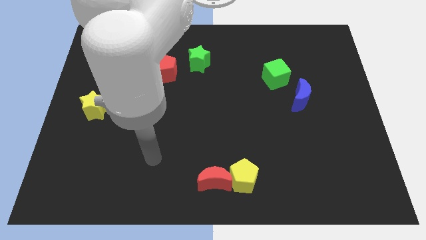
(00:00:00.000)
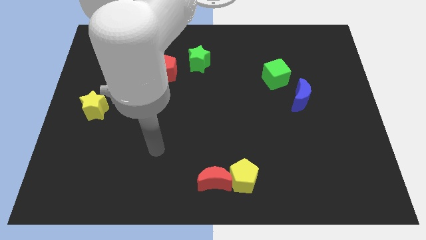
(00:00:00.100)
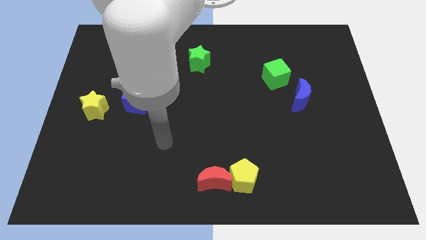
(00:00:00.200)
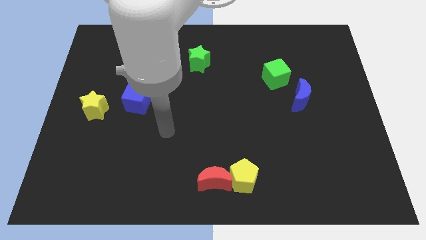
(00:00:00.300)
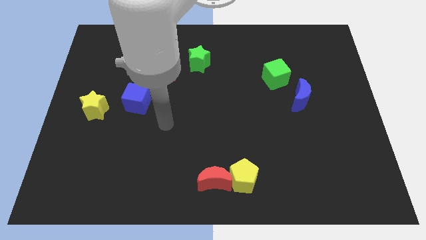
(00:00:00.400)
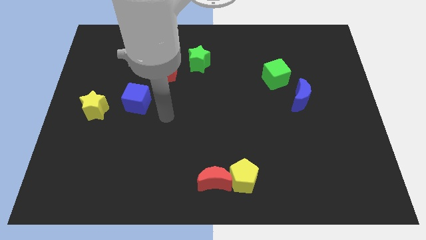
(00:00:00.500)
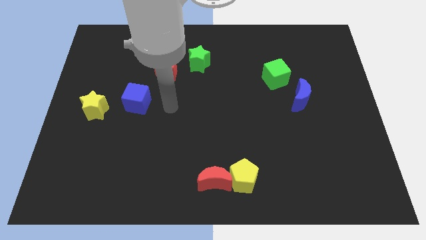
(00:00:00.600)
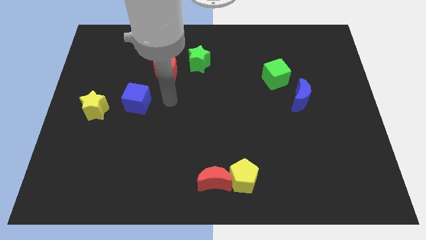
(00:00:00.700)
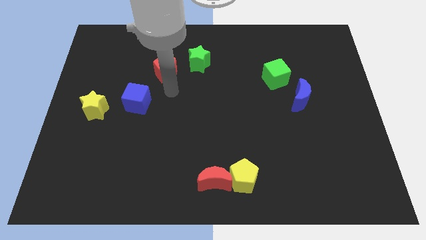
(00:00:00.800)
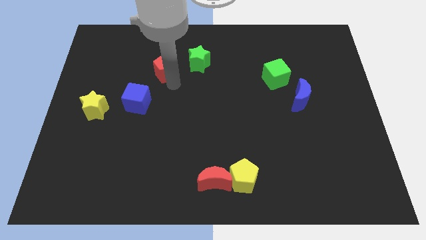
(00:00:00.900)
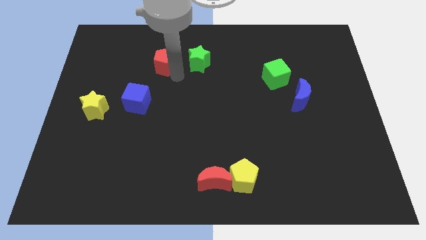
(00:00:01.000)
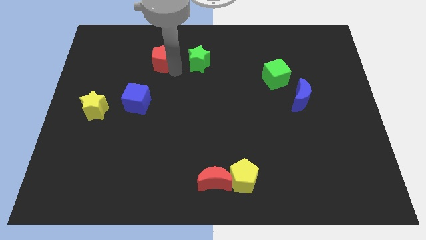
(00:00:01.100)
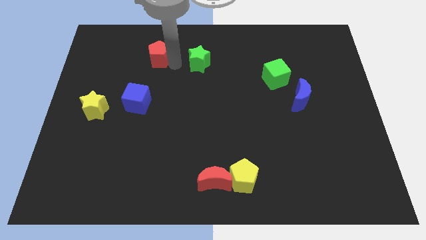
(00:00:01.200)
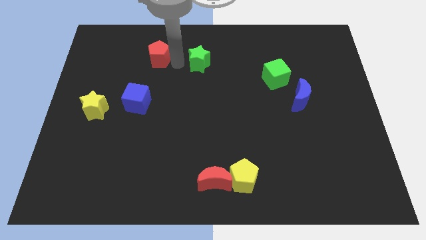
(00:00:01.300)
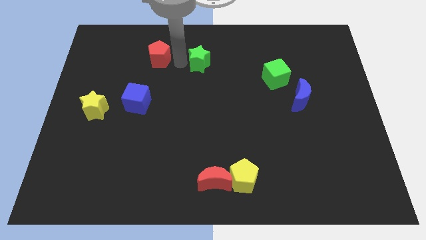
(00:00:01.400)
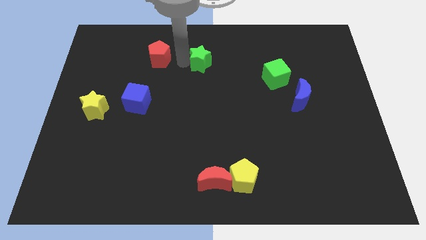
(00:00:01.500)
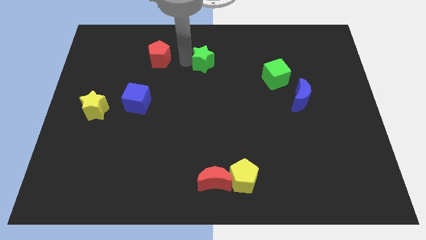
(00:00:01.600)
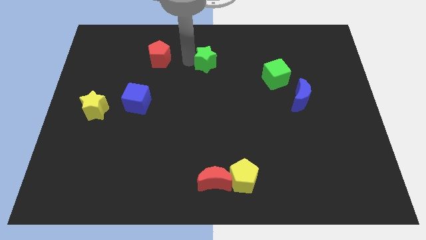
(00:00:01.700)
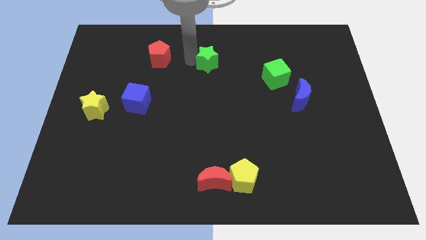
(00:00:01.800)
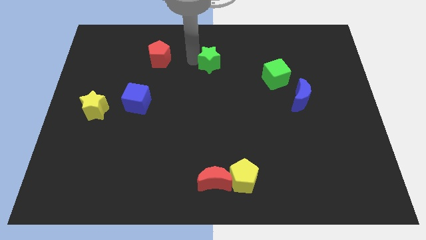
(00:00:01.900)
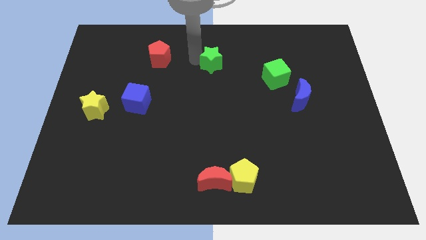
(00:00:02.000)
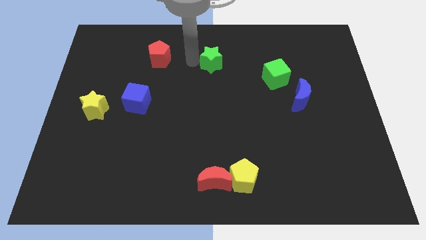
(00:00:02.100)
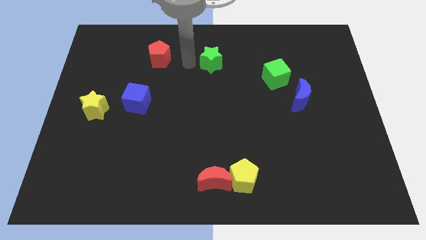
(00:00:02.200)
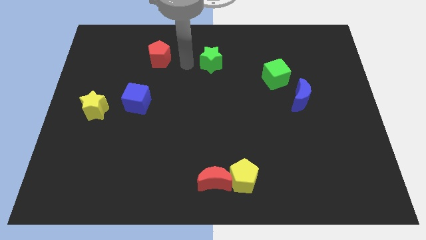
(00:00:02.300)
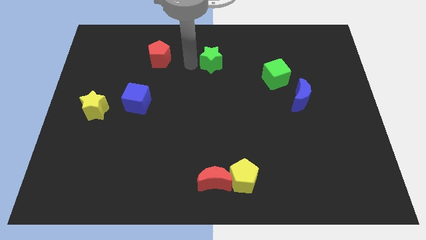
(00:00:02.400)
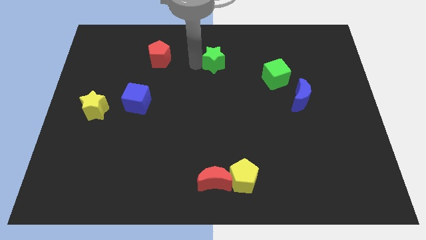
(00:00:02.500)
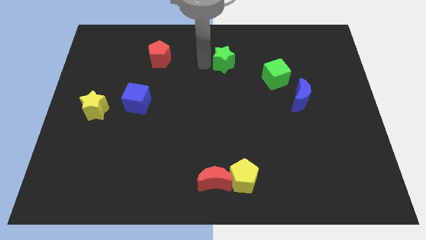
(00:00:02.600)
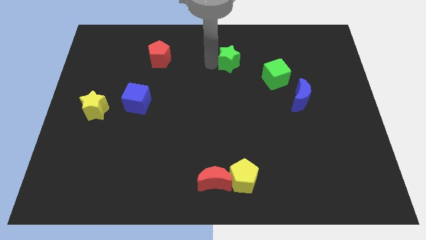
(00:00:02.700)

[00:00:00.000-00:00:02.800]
slightly slide the green star to the right

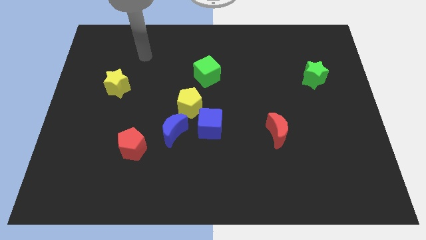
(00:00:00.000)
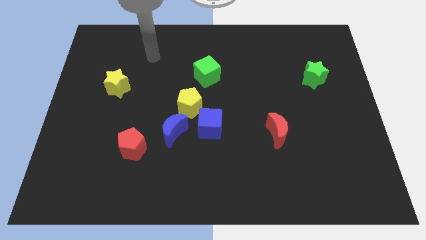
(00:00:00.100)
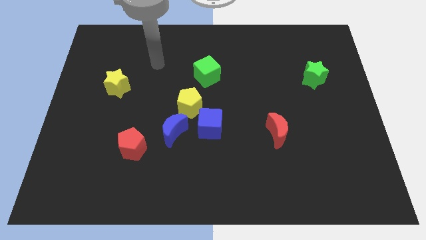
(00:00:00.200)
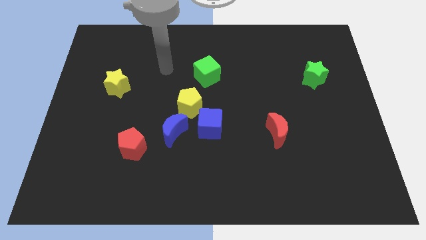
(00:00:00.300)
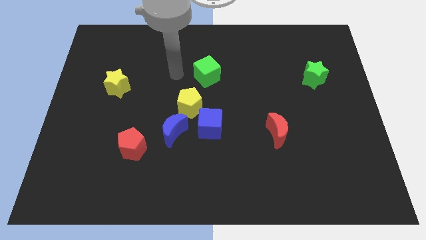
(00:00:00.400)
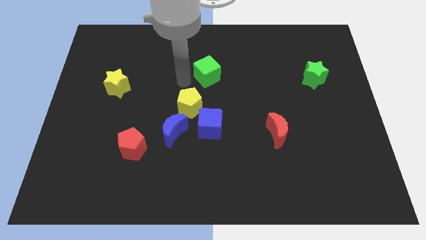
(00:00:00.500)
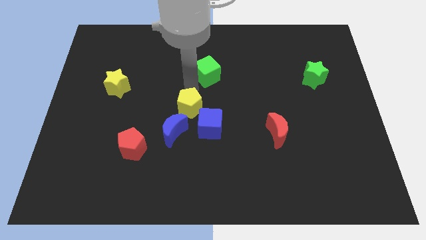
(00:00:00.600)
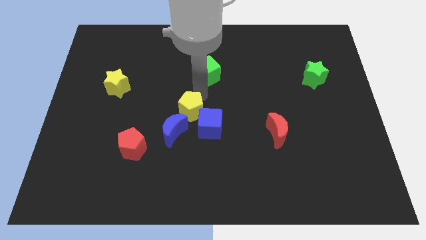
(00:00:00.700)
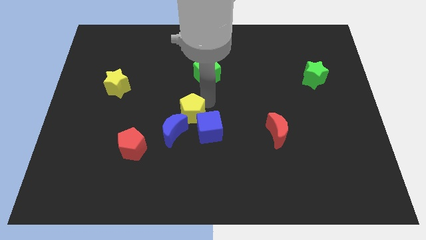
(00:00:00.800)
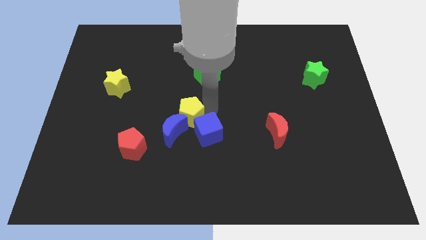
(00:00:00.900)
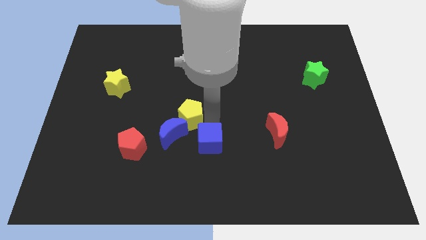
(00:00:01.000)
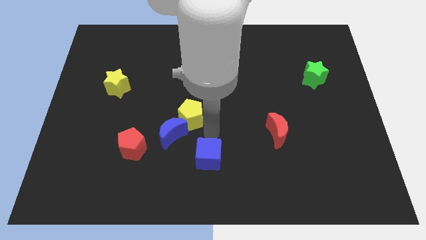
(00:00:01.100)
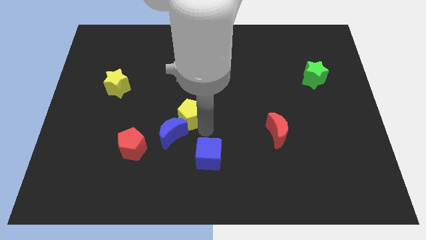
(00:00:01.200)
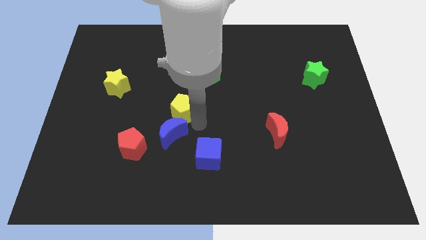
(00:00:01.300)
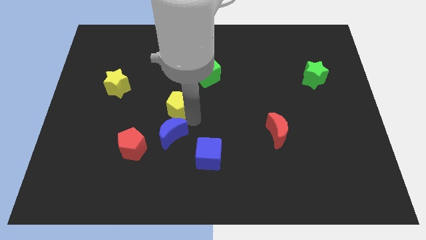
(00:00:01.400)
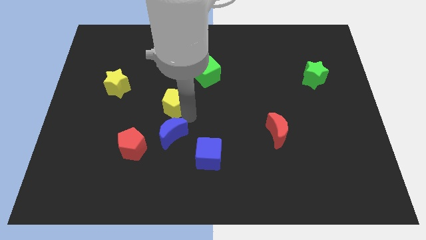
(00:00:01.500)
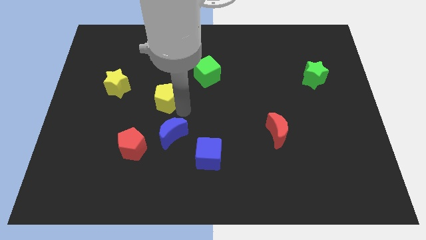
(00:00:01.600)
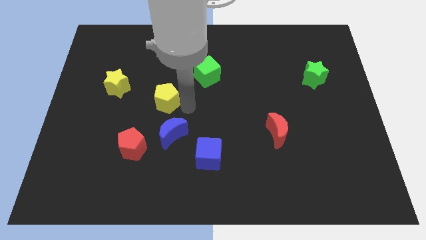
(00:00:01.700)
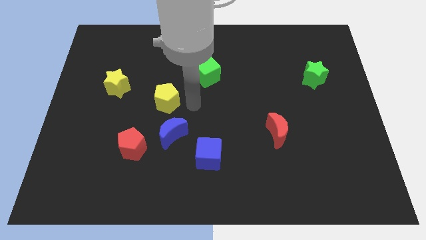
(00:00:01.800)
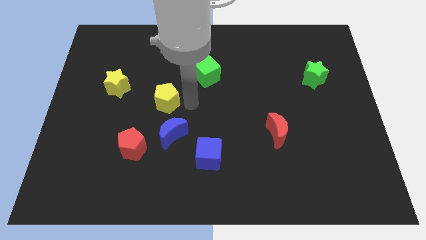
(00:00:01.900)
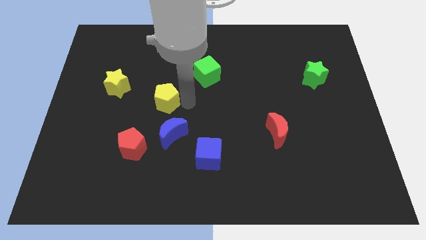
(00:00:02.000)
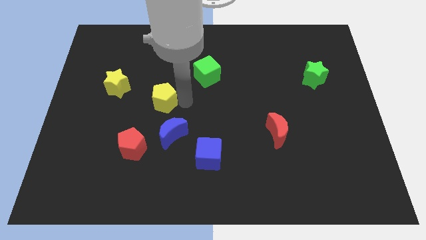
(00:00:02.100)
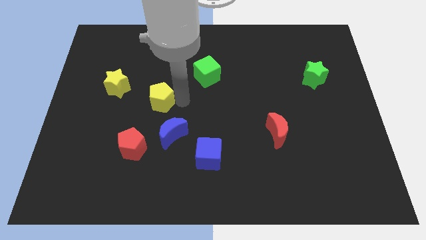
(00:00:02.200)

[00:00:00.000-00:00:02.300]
slightly move the yellow pentagon to the left

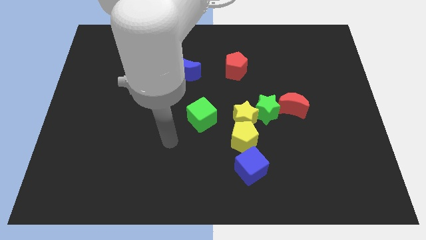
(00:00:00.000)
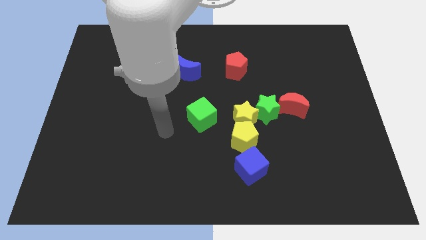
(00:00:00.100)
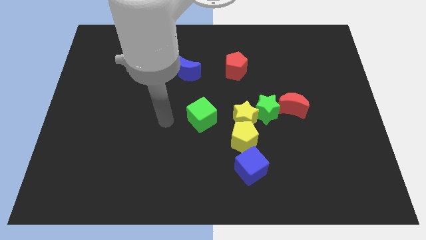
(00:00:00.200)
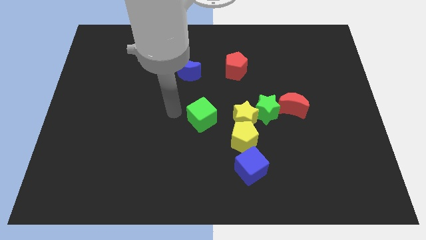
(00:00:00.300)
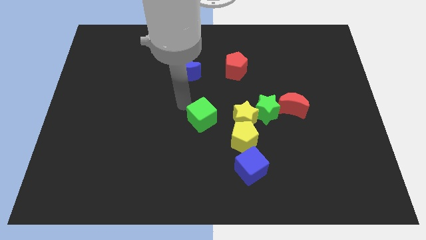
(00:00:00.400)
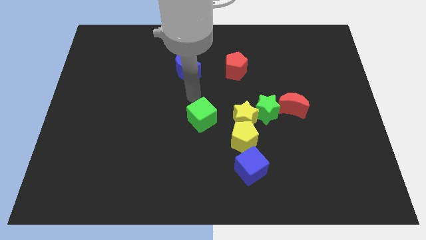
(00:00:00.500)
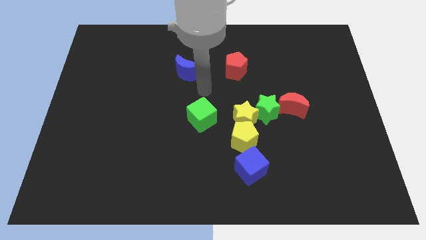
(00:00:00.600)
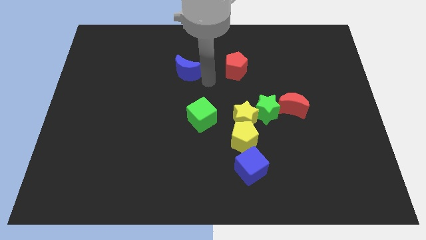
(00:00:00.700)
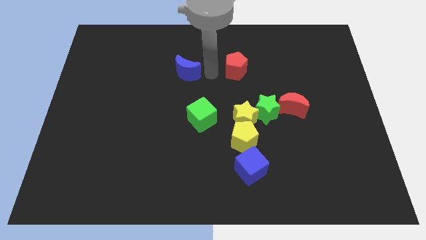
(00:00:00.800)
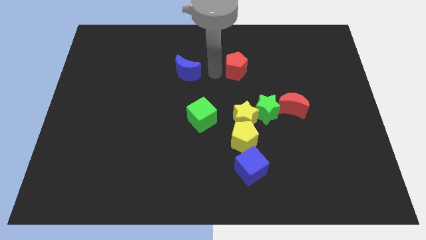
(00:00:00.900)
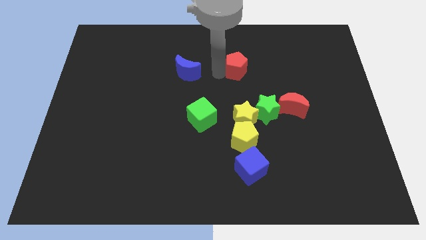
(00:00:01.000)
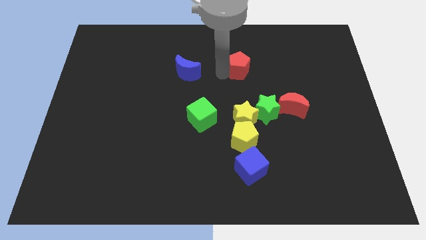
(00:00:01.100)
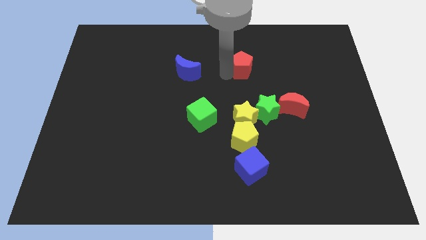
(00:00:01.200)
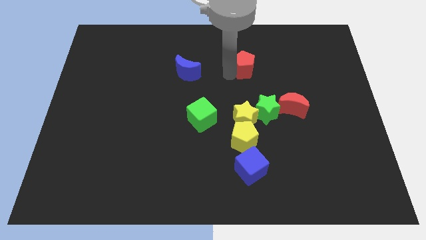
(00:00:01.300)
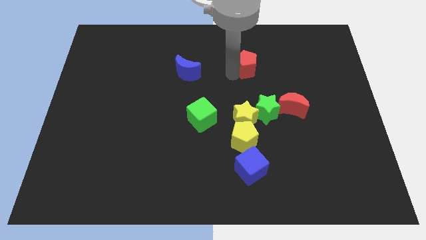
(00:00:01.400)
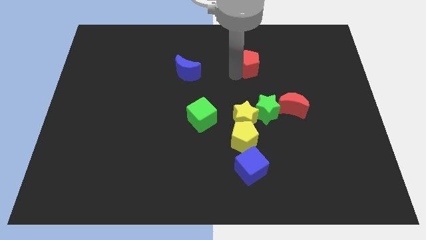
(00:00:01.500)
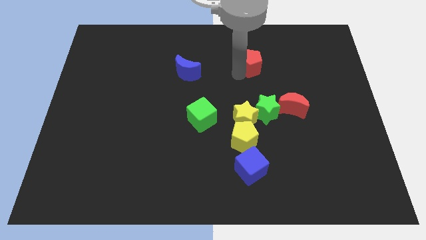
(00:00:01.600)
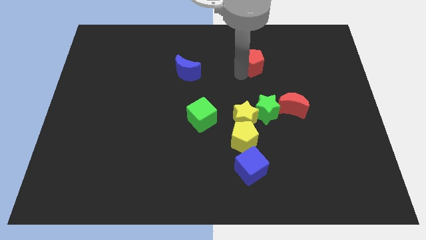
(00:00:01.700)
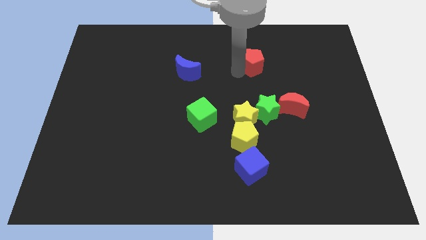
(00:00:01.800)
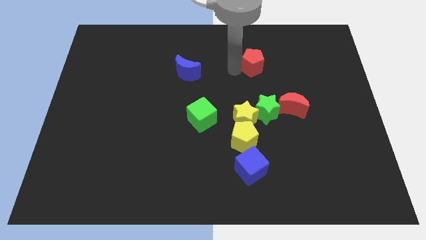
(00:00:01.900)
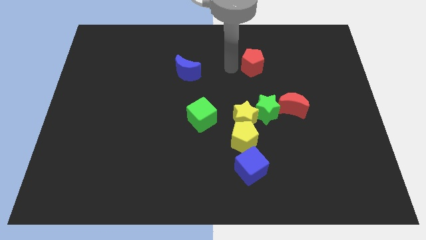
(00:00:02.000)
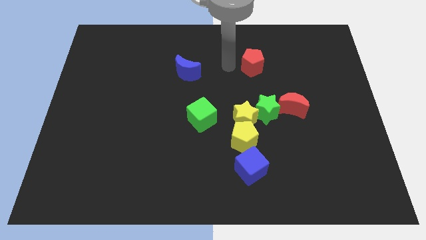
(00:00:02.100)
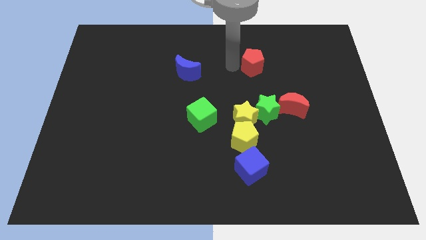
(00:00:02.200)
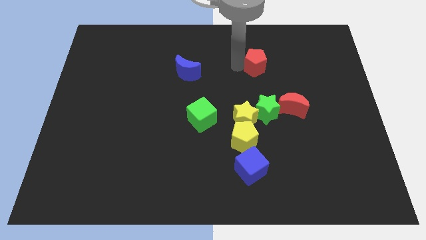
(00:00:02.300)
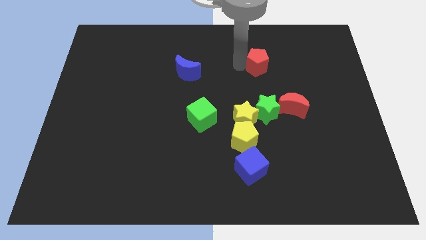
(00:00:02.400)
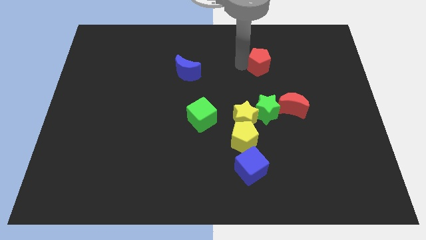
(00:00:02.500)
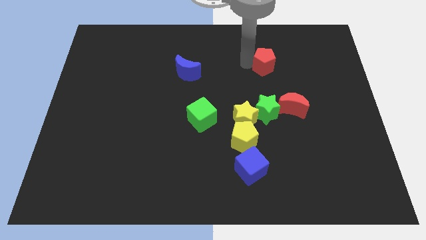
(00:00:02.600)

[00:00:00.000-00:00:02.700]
slightly move the red pentagon right

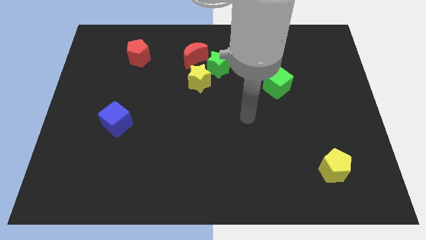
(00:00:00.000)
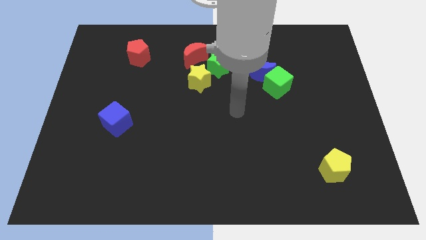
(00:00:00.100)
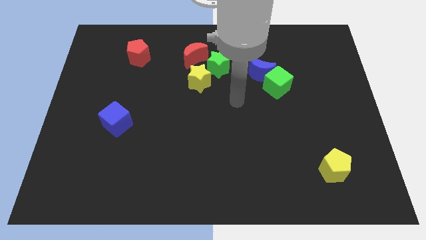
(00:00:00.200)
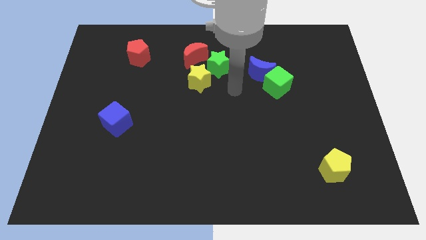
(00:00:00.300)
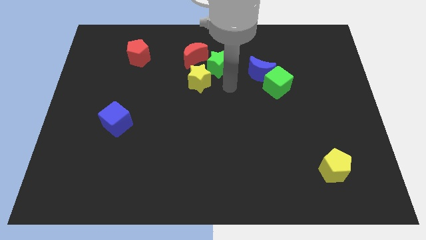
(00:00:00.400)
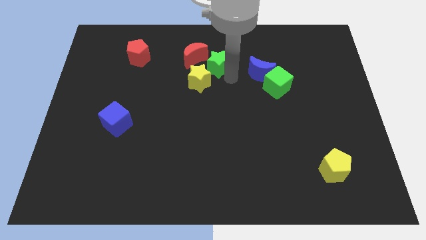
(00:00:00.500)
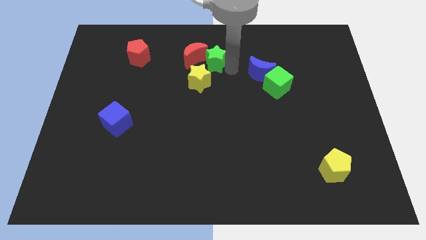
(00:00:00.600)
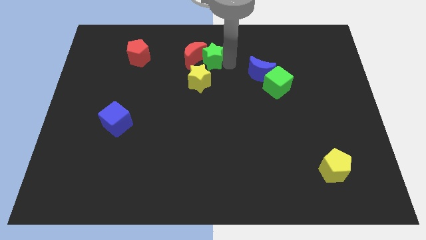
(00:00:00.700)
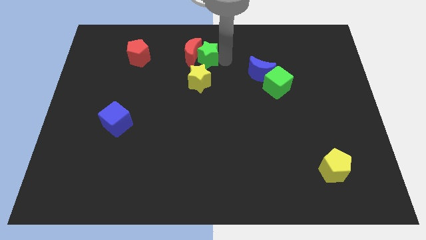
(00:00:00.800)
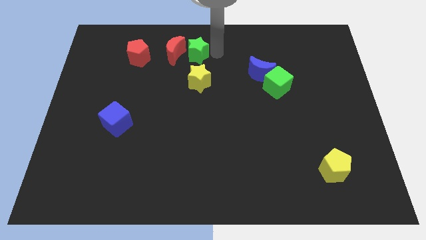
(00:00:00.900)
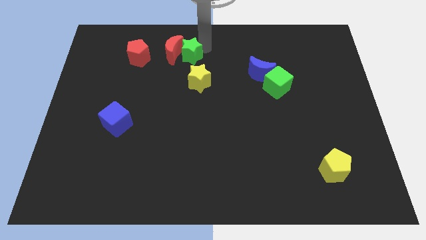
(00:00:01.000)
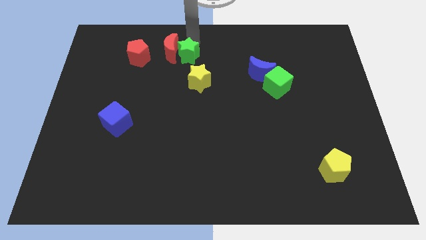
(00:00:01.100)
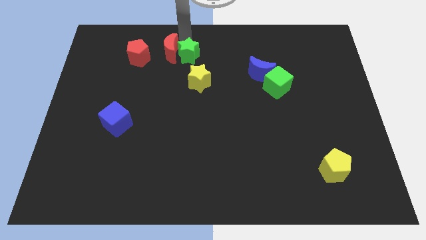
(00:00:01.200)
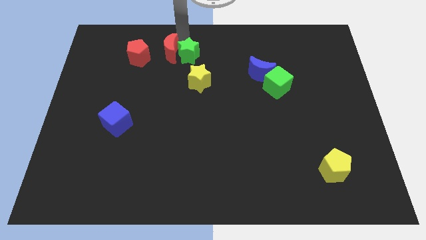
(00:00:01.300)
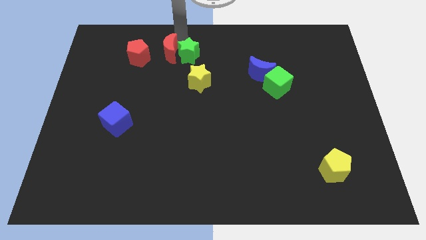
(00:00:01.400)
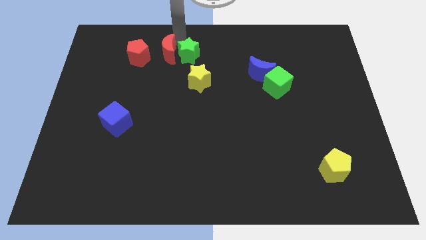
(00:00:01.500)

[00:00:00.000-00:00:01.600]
slide the red moon left somewhat
